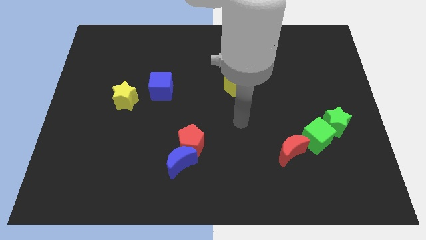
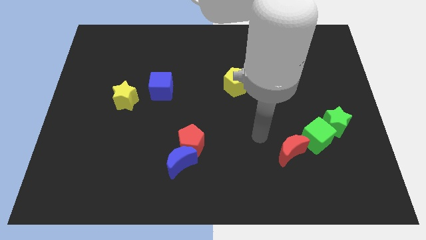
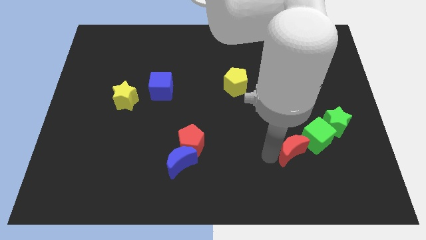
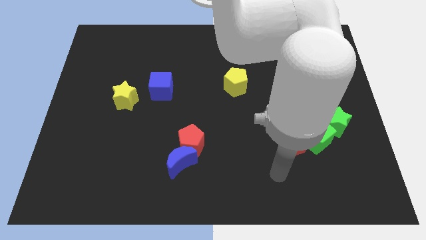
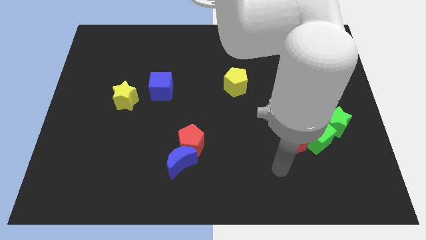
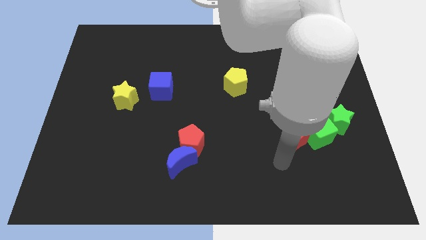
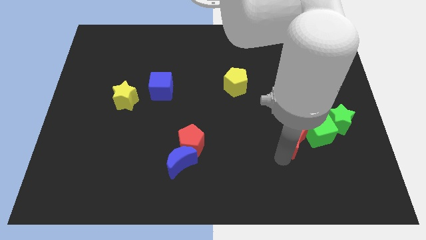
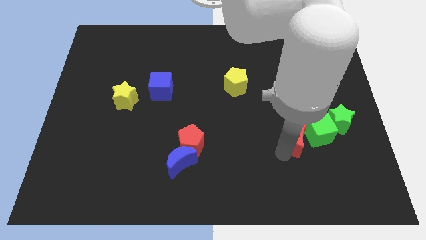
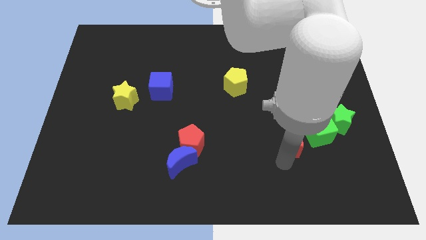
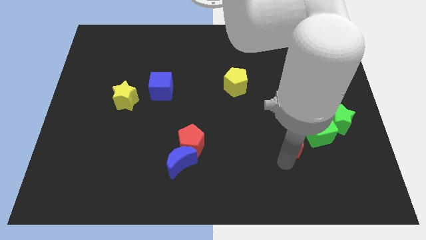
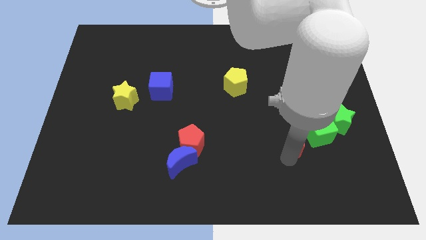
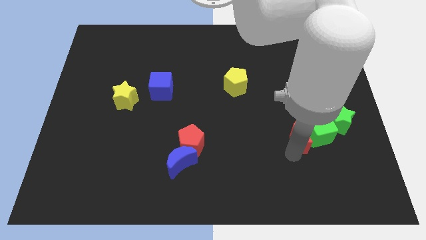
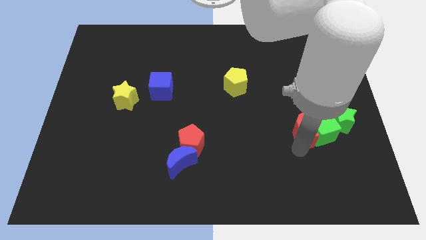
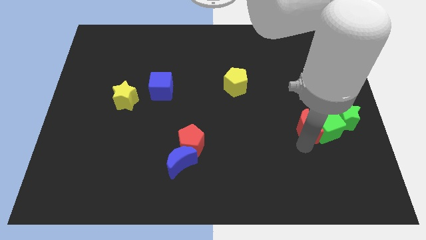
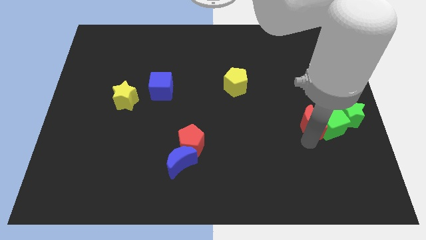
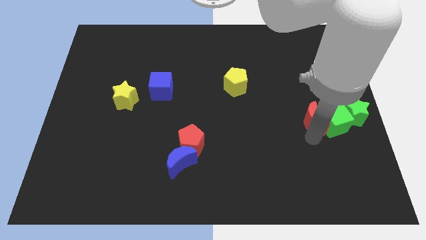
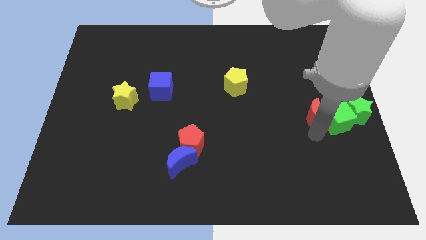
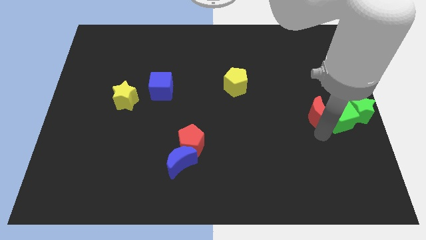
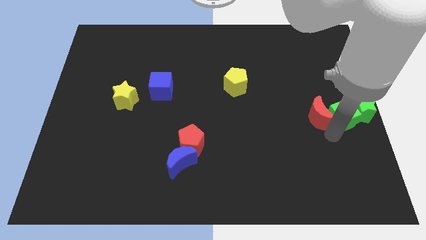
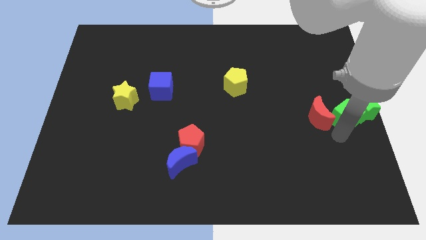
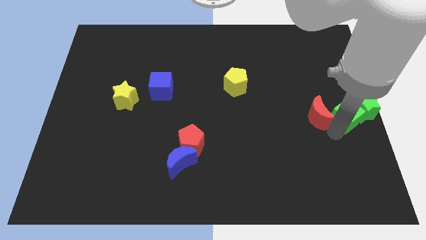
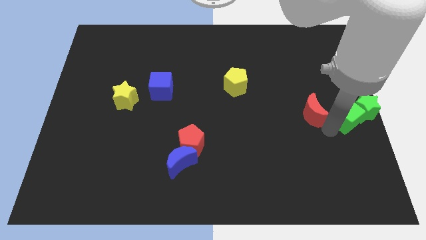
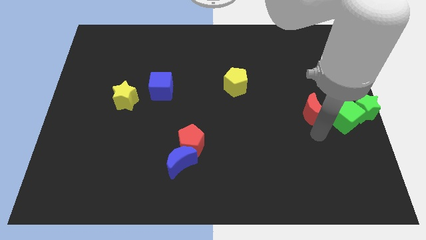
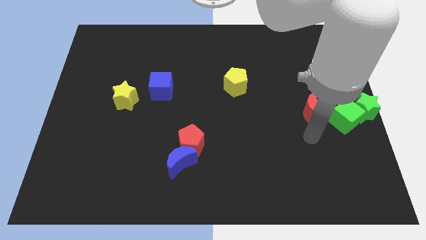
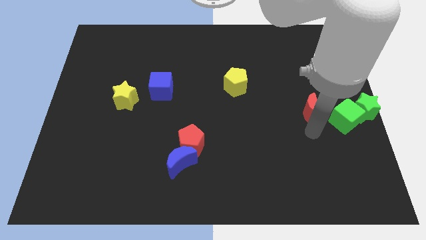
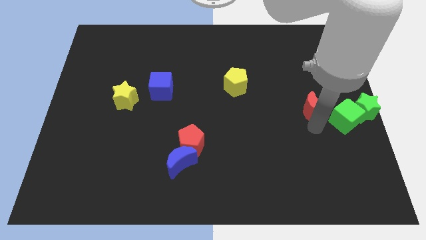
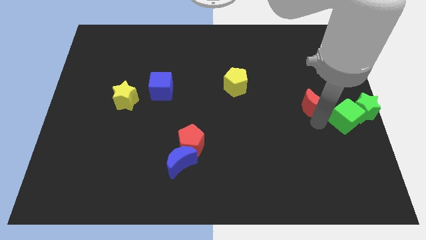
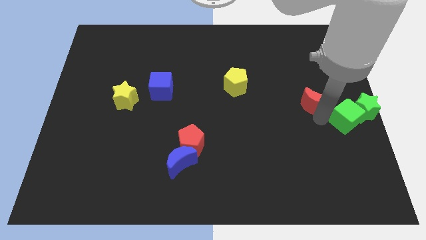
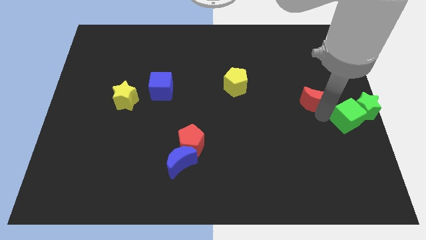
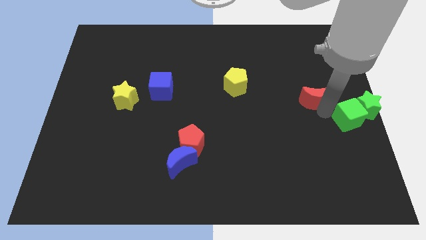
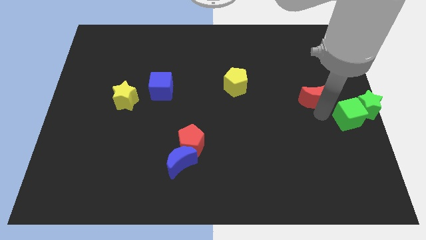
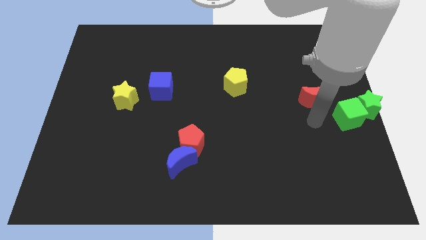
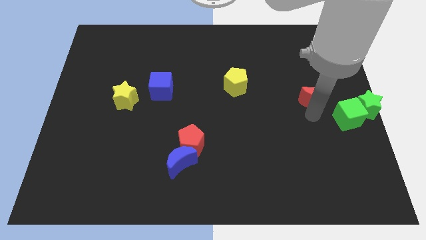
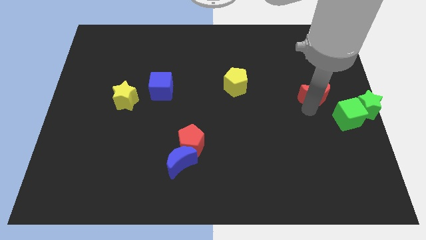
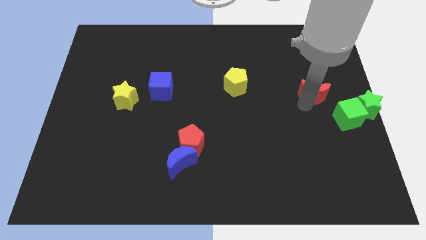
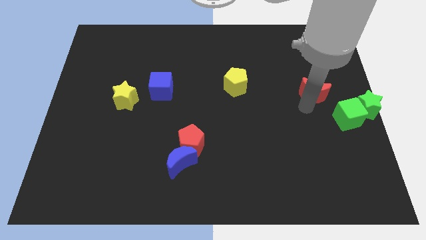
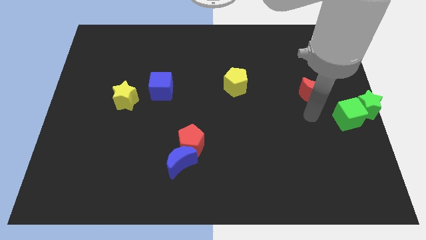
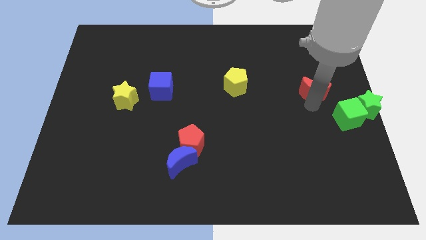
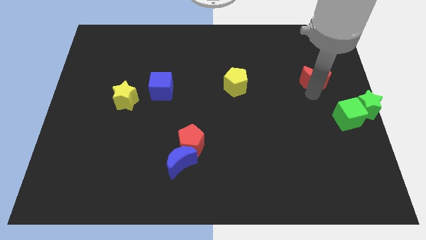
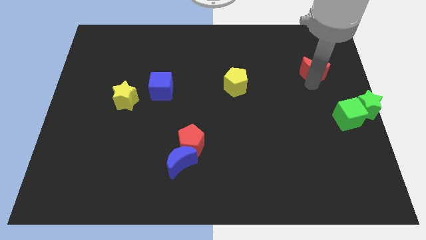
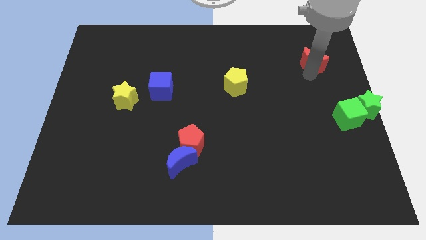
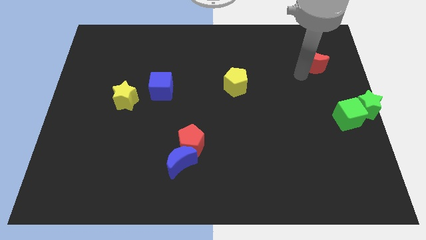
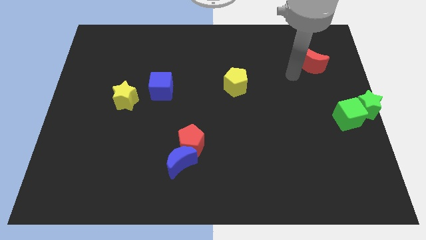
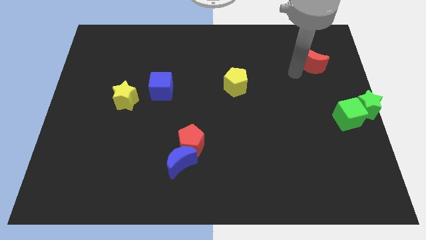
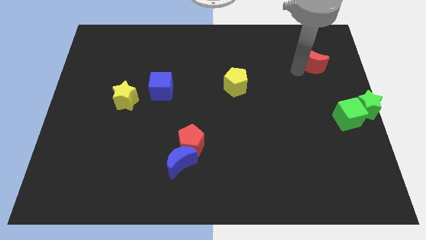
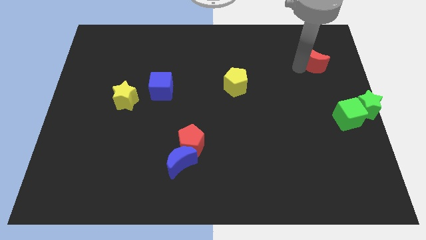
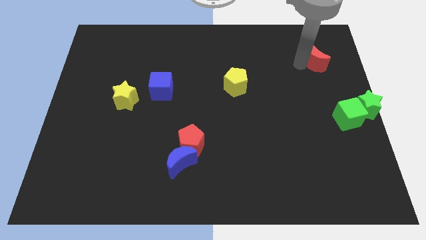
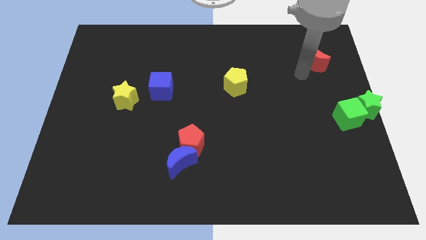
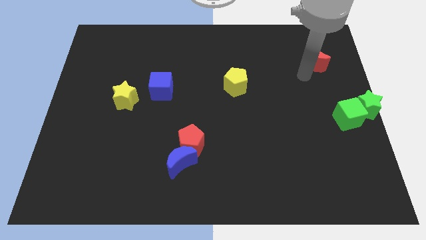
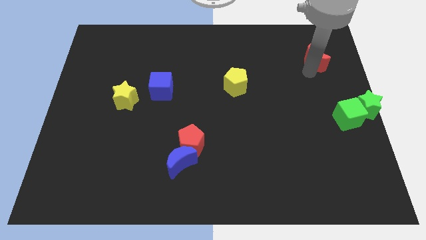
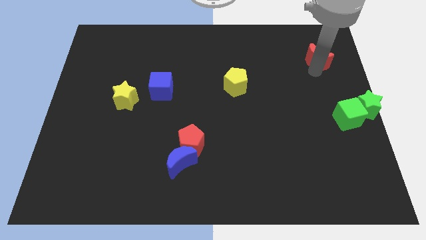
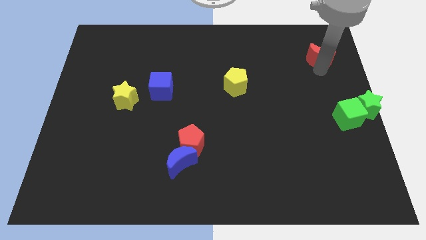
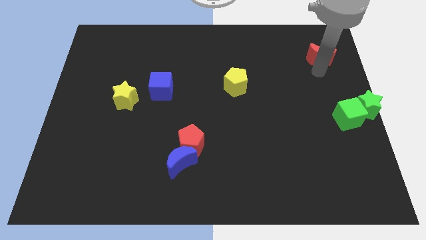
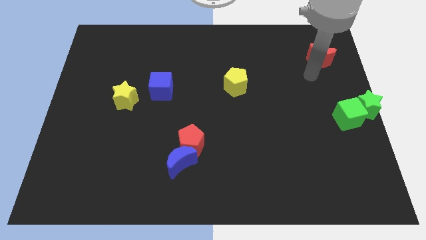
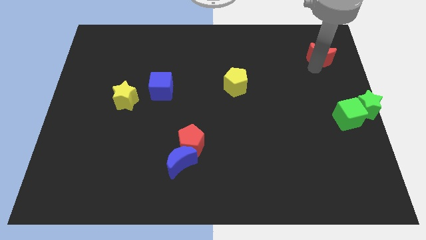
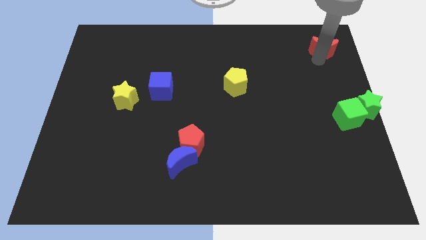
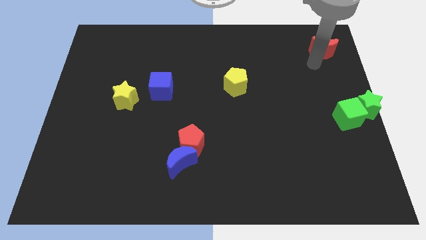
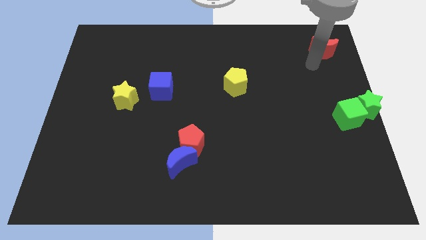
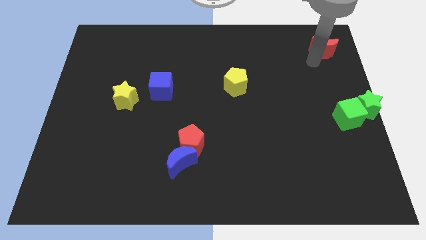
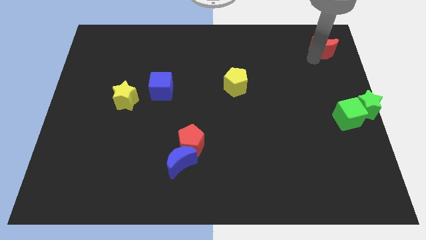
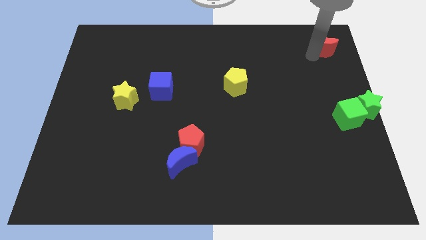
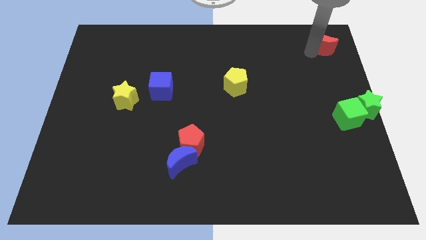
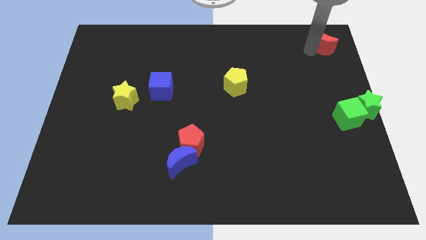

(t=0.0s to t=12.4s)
slide the red moon to the top right
